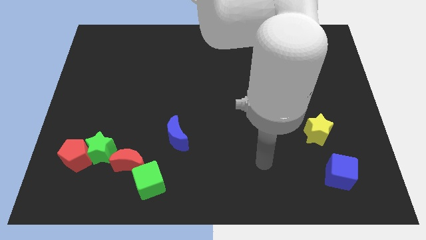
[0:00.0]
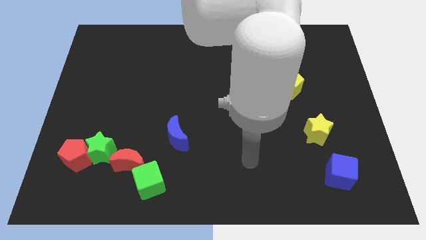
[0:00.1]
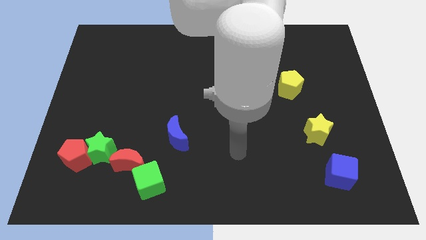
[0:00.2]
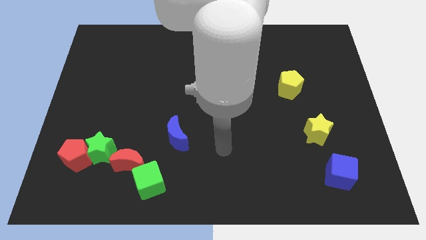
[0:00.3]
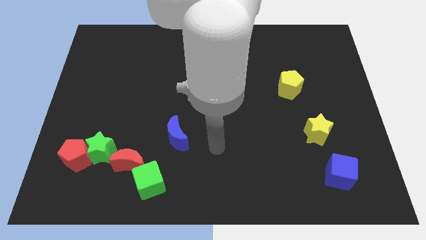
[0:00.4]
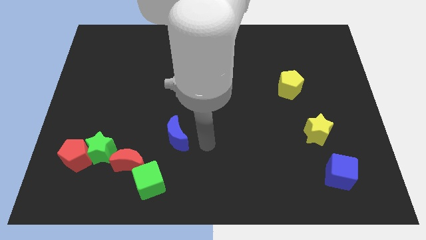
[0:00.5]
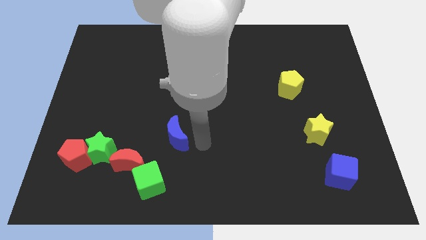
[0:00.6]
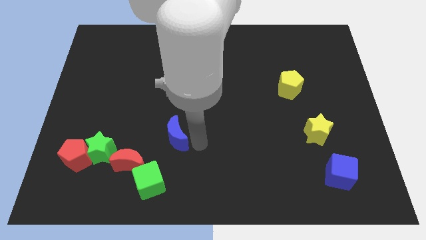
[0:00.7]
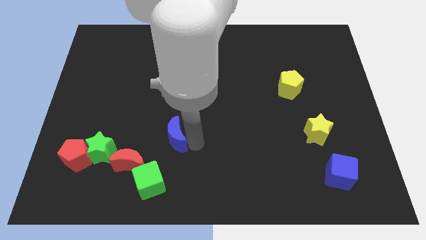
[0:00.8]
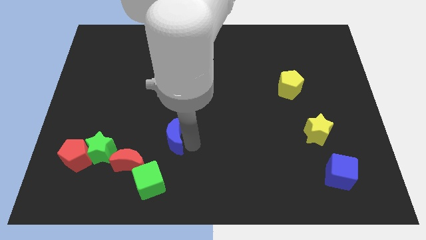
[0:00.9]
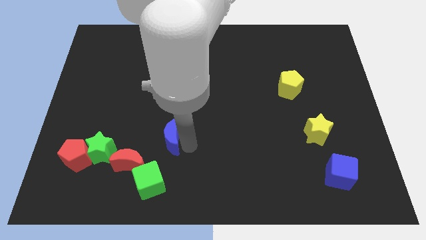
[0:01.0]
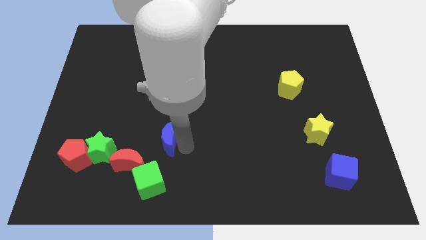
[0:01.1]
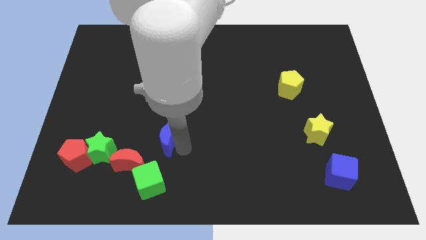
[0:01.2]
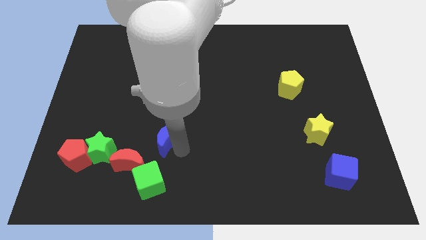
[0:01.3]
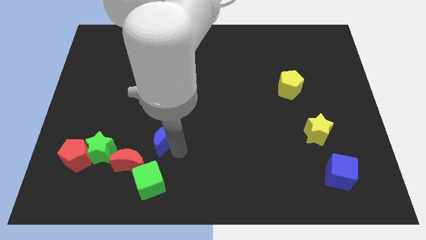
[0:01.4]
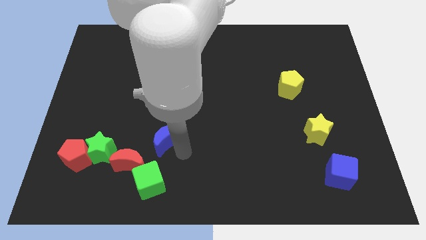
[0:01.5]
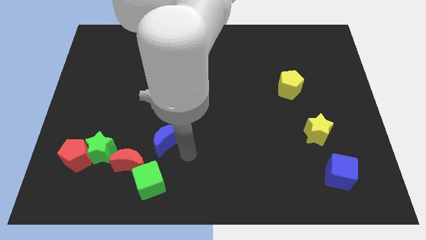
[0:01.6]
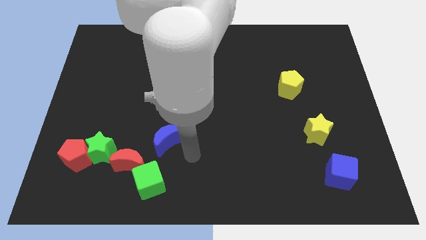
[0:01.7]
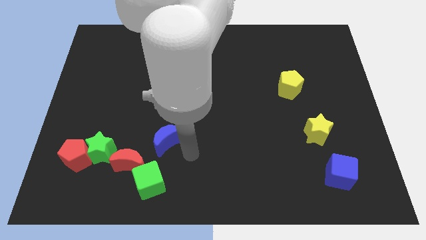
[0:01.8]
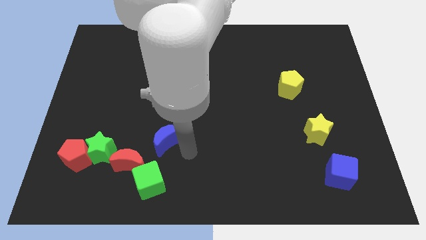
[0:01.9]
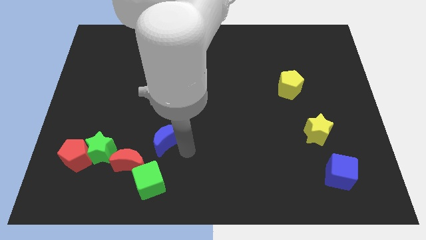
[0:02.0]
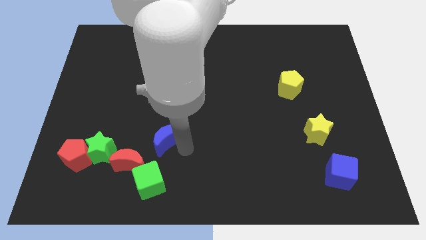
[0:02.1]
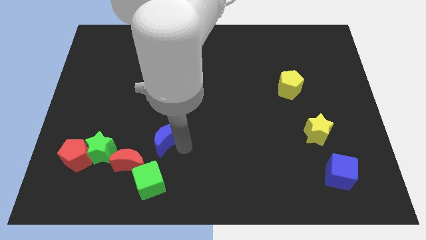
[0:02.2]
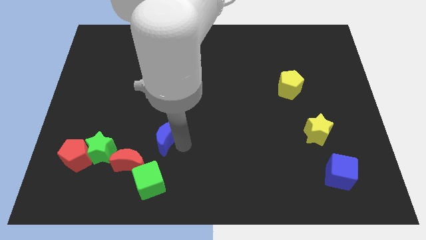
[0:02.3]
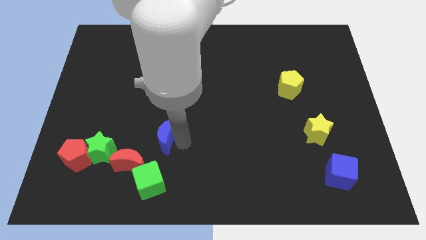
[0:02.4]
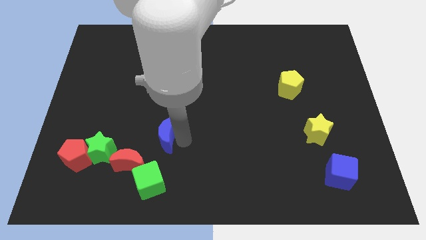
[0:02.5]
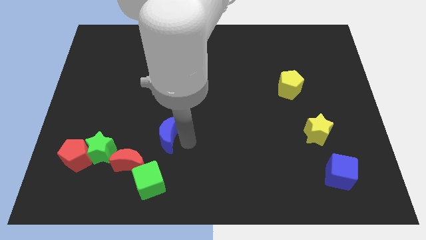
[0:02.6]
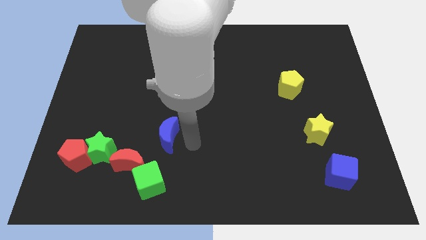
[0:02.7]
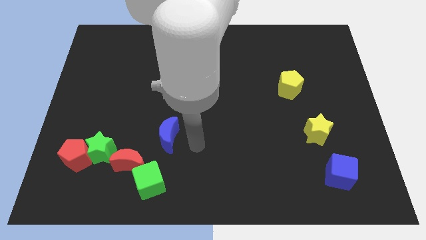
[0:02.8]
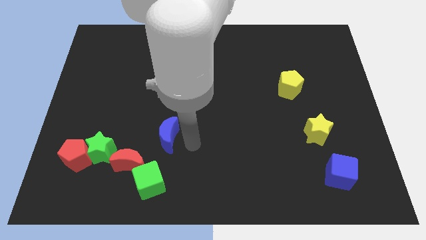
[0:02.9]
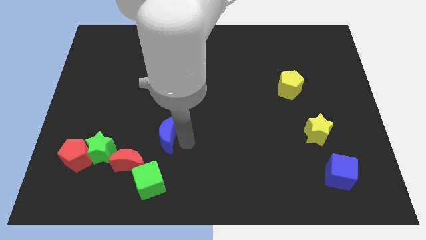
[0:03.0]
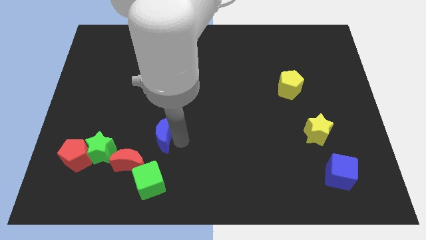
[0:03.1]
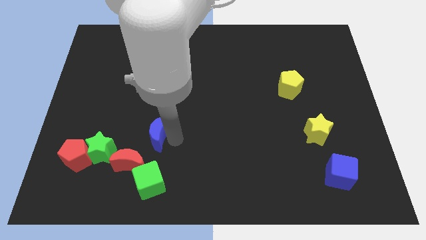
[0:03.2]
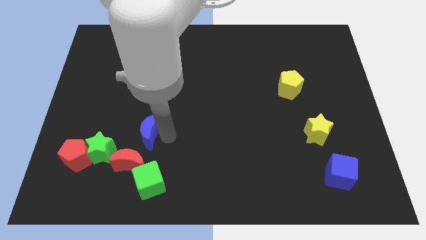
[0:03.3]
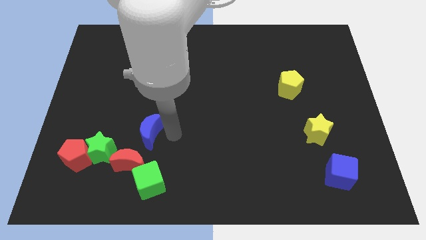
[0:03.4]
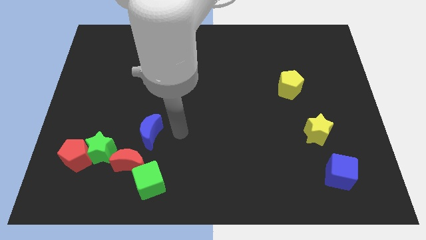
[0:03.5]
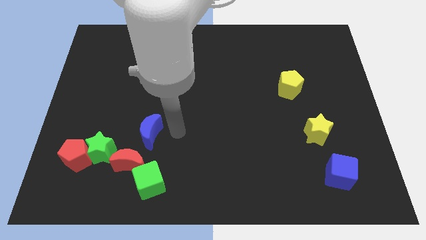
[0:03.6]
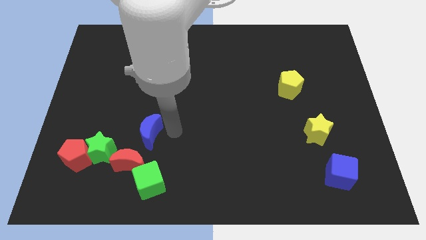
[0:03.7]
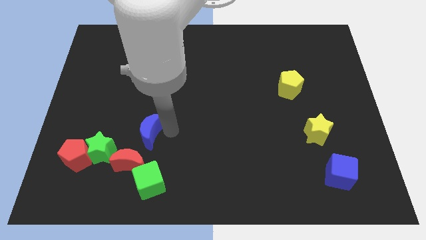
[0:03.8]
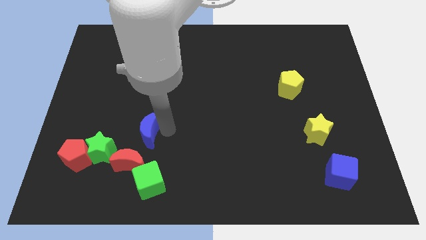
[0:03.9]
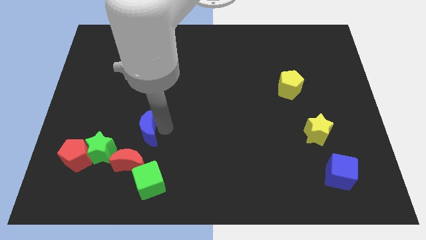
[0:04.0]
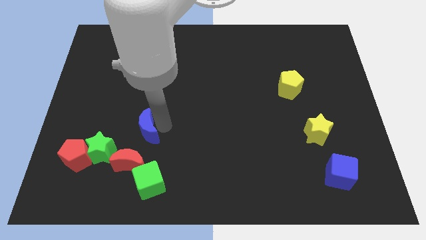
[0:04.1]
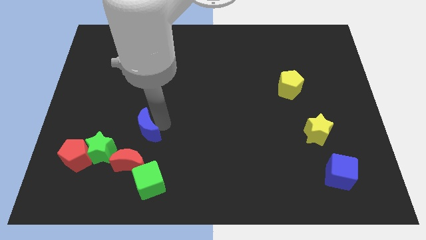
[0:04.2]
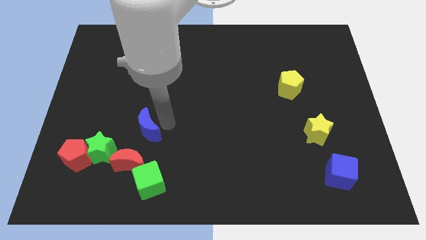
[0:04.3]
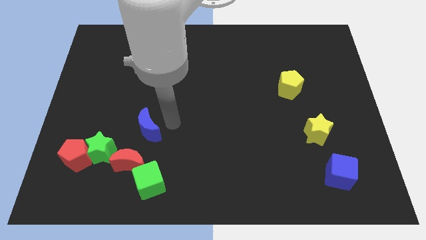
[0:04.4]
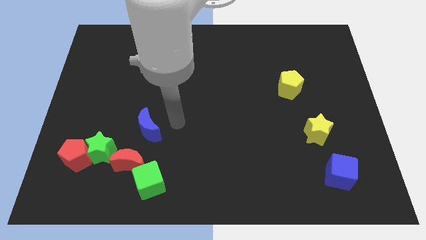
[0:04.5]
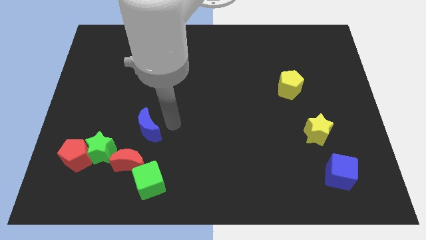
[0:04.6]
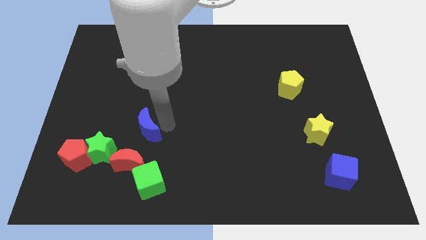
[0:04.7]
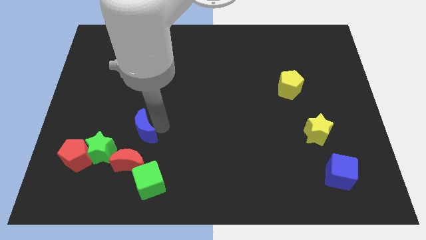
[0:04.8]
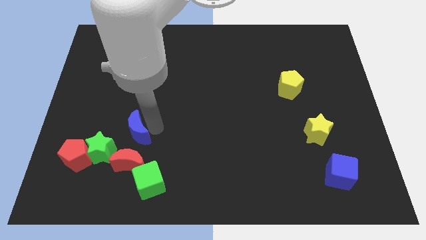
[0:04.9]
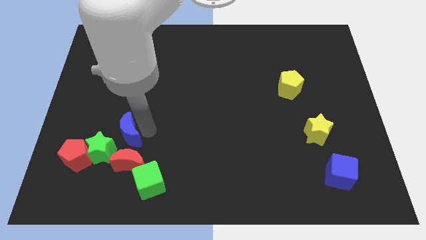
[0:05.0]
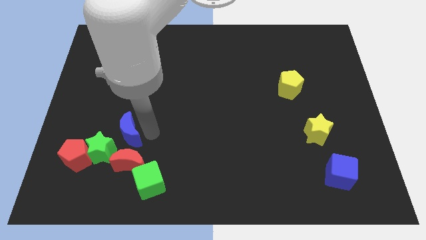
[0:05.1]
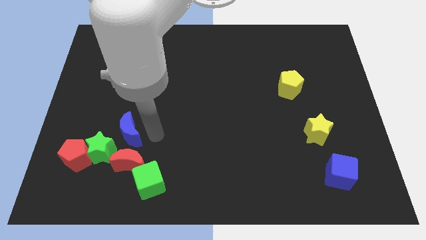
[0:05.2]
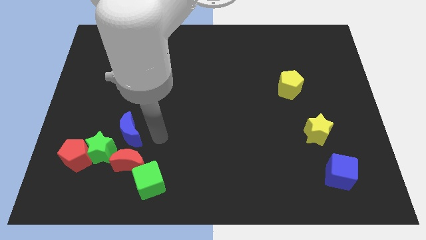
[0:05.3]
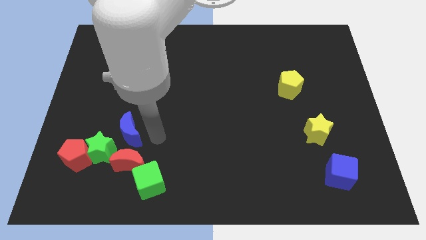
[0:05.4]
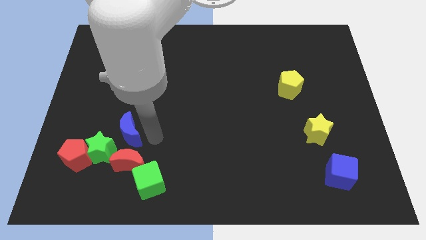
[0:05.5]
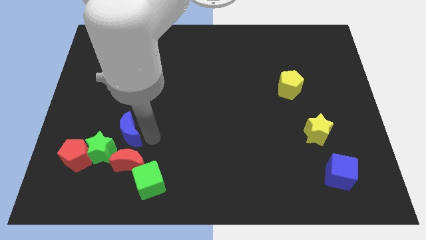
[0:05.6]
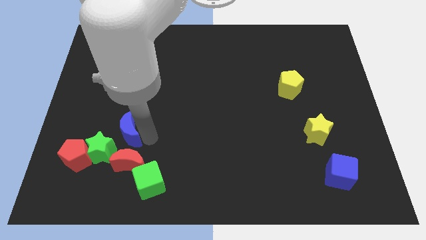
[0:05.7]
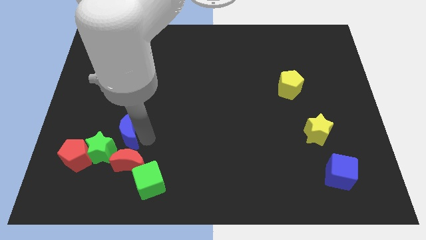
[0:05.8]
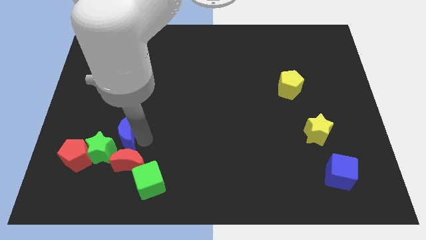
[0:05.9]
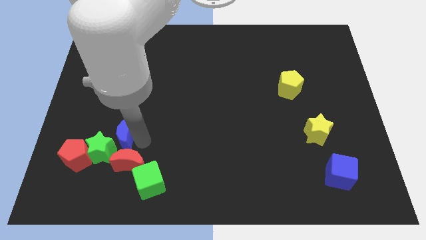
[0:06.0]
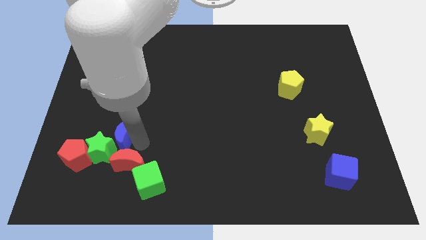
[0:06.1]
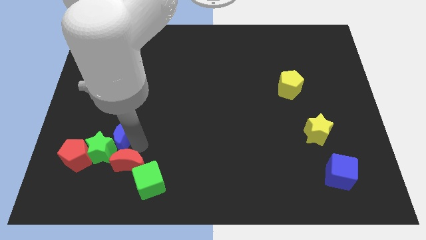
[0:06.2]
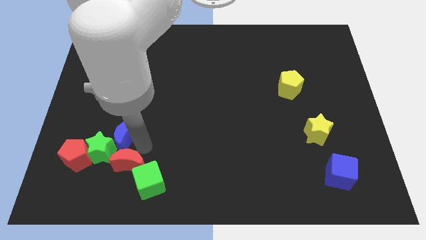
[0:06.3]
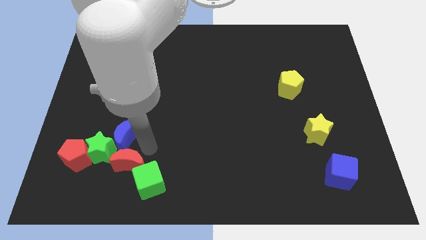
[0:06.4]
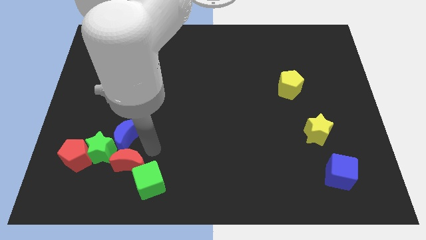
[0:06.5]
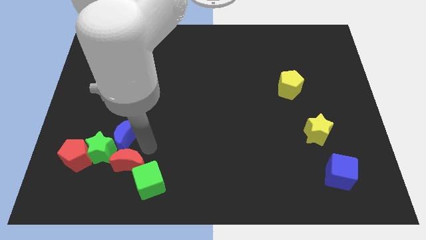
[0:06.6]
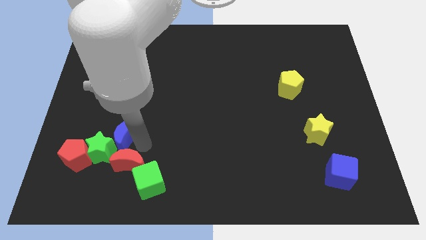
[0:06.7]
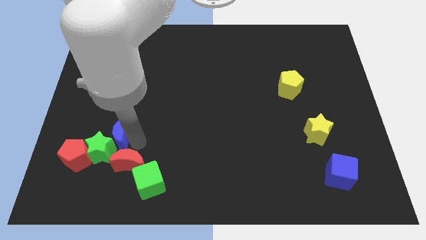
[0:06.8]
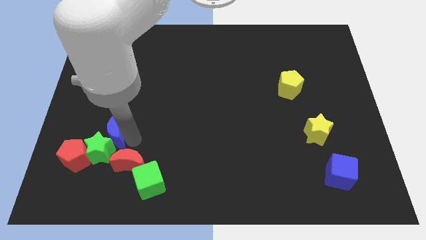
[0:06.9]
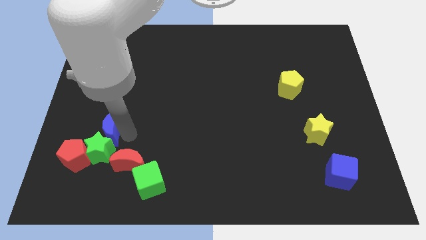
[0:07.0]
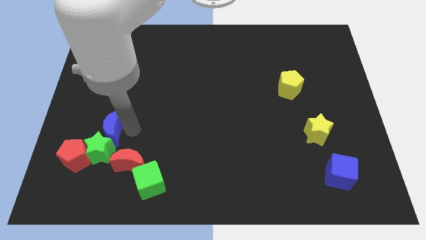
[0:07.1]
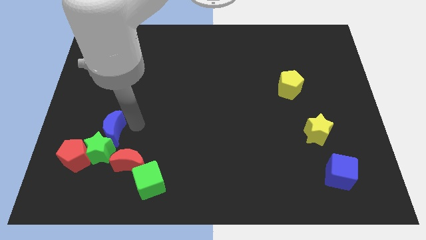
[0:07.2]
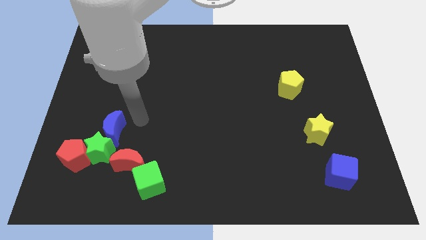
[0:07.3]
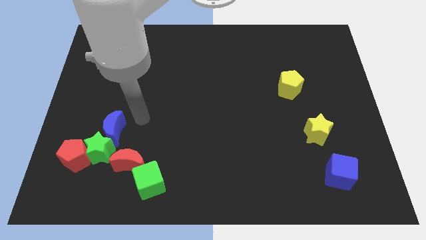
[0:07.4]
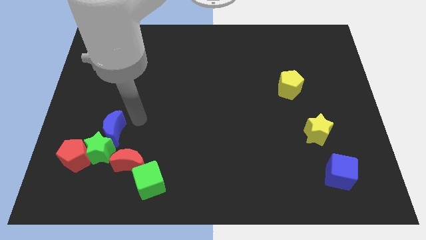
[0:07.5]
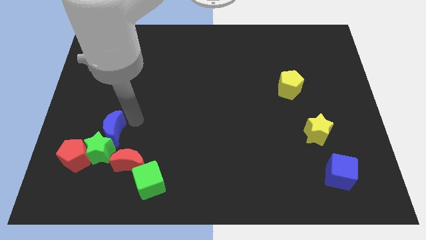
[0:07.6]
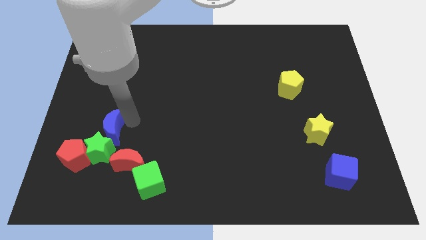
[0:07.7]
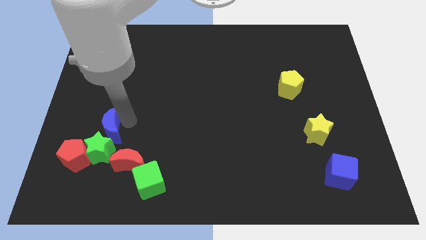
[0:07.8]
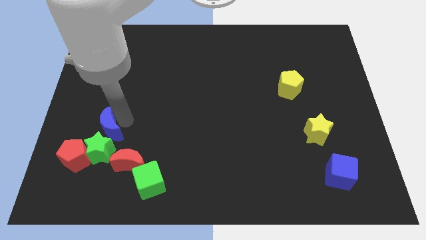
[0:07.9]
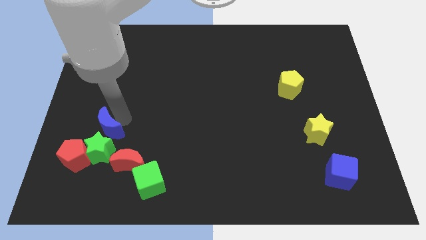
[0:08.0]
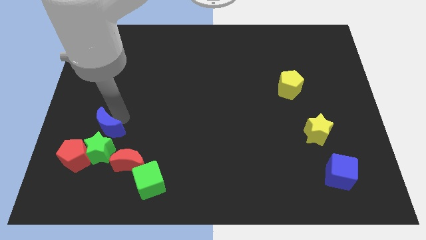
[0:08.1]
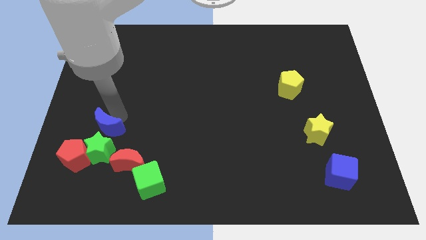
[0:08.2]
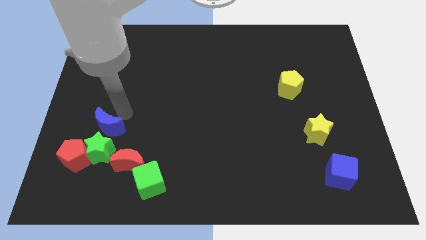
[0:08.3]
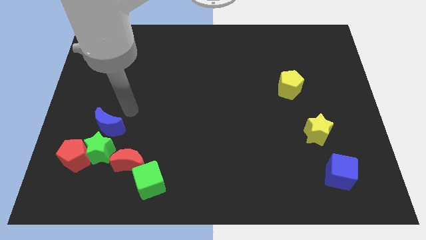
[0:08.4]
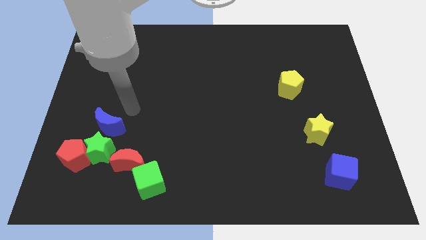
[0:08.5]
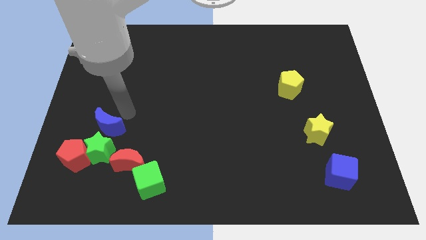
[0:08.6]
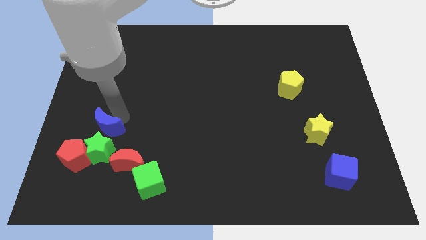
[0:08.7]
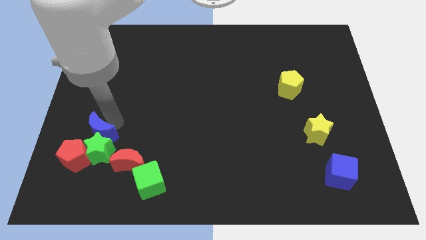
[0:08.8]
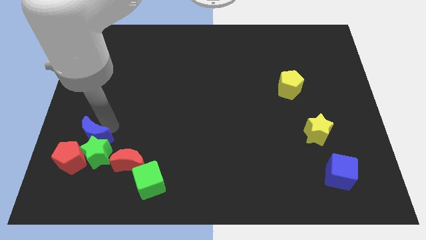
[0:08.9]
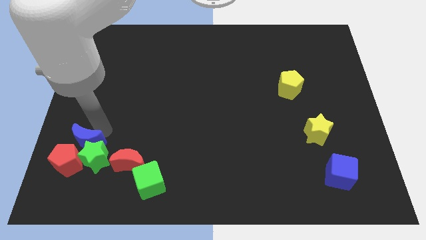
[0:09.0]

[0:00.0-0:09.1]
put the blue moon to the red pentagon
